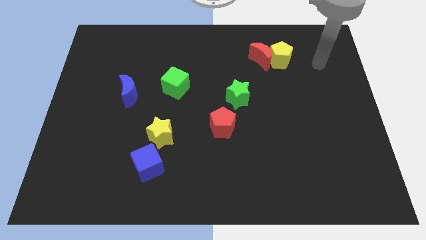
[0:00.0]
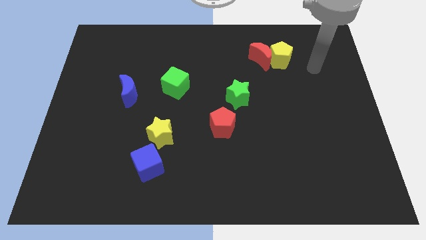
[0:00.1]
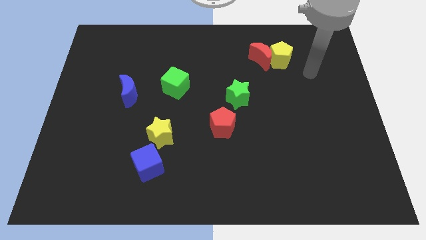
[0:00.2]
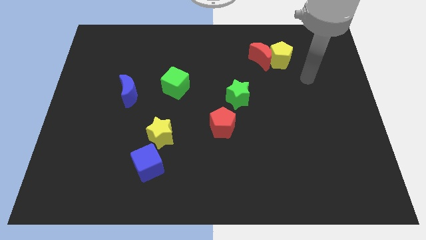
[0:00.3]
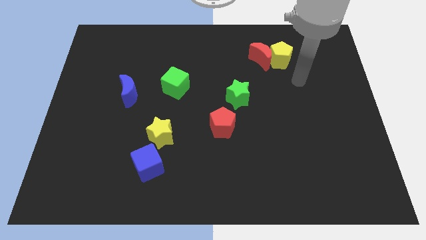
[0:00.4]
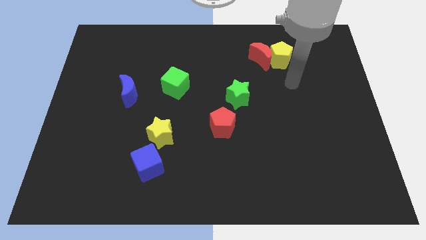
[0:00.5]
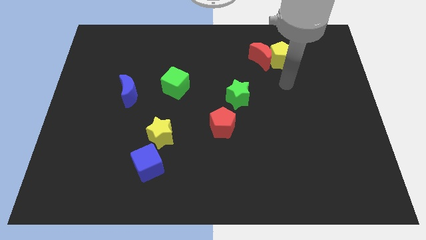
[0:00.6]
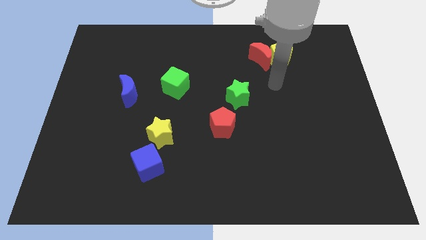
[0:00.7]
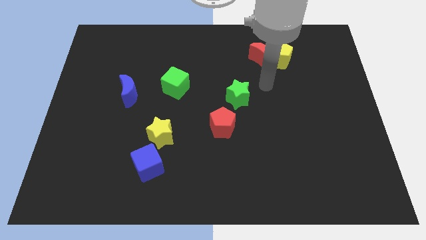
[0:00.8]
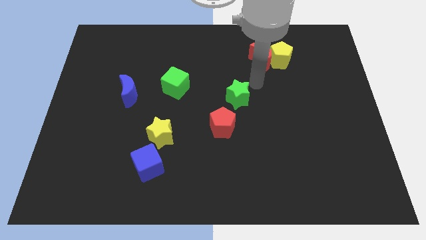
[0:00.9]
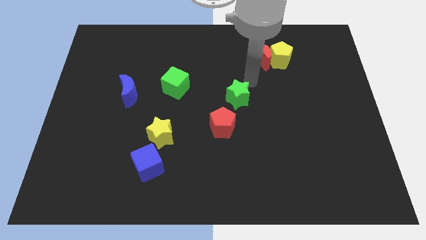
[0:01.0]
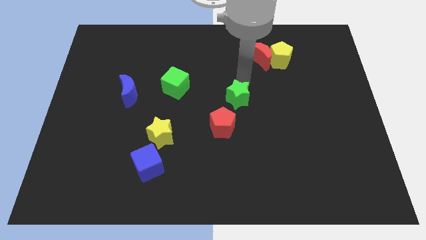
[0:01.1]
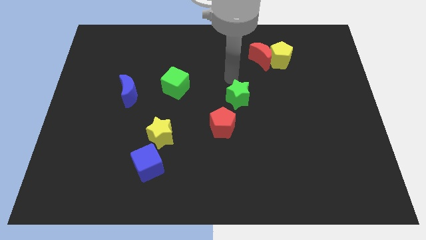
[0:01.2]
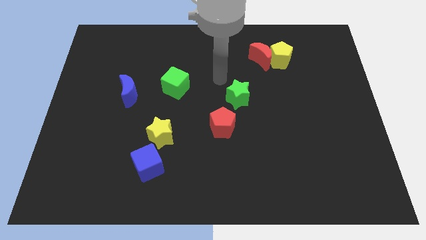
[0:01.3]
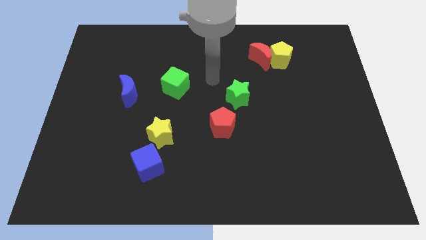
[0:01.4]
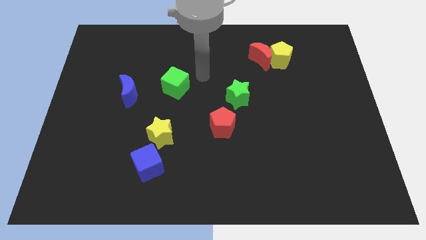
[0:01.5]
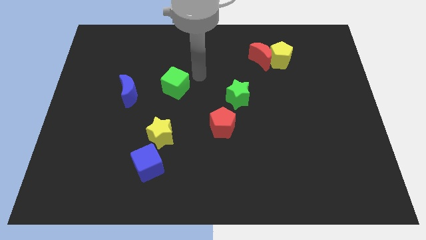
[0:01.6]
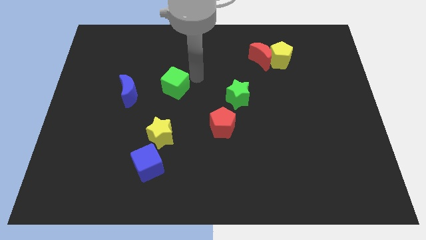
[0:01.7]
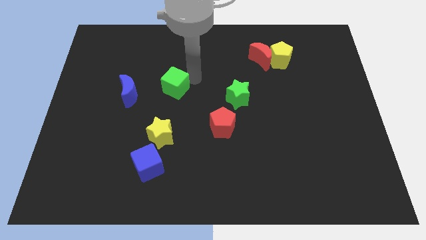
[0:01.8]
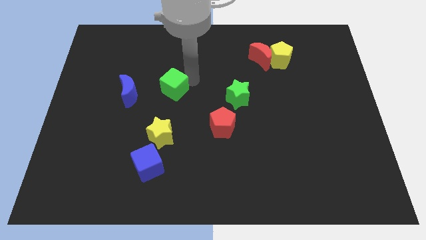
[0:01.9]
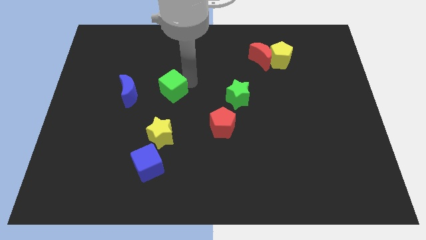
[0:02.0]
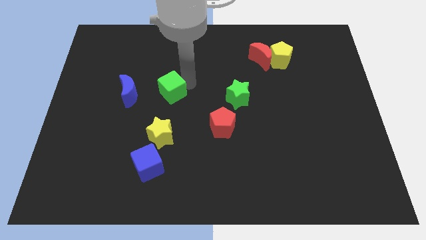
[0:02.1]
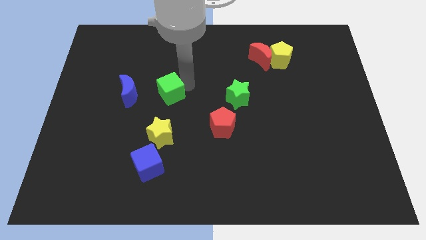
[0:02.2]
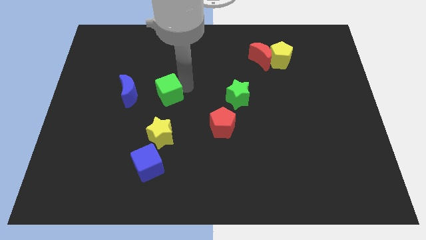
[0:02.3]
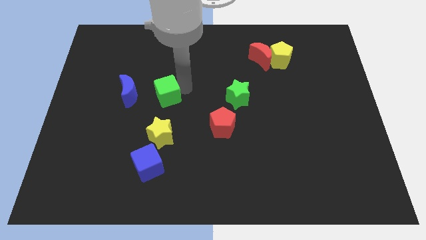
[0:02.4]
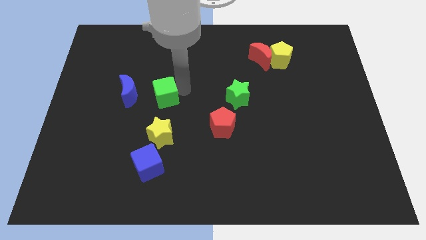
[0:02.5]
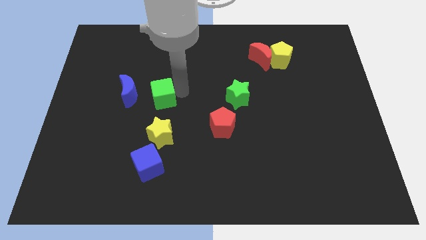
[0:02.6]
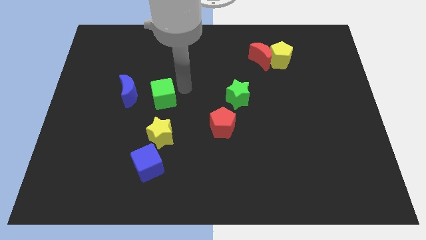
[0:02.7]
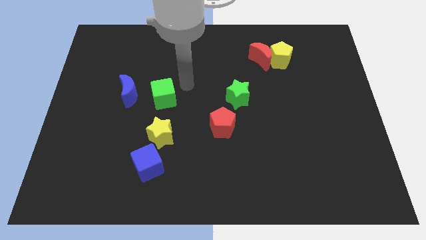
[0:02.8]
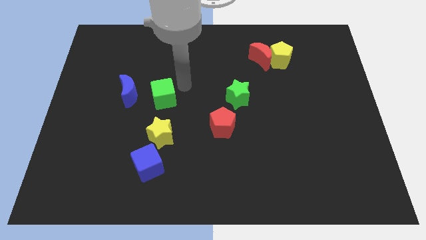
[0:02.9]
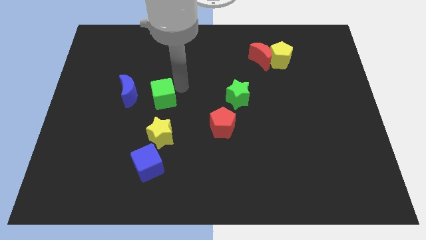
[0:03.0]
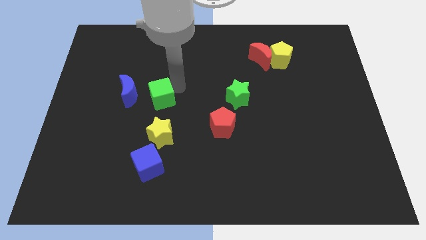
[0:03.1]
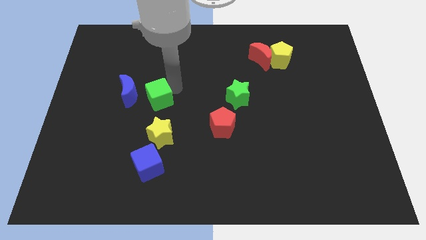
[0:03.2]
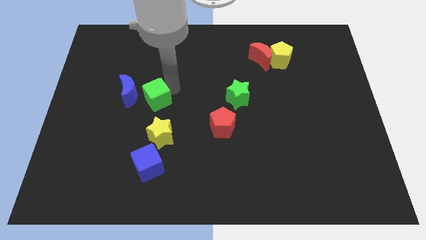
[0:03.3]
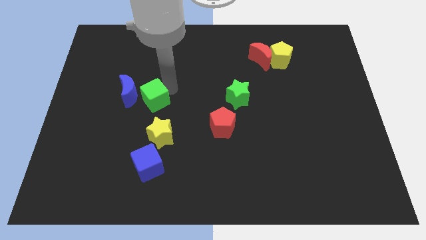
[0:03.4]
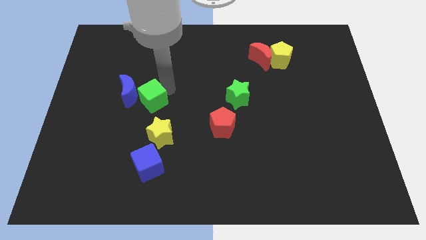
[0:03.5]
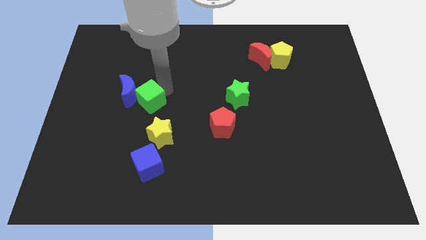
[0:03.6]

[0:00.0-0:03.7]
move the green cube downwards and left a little bit

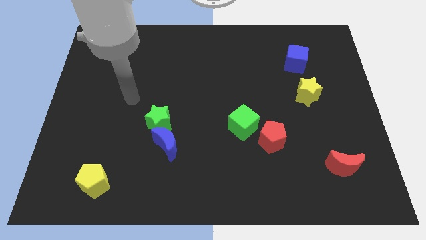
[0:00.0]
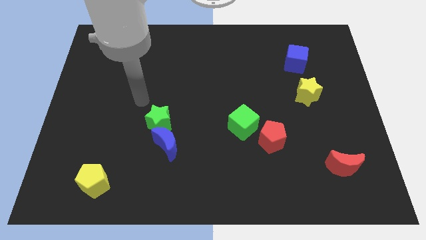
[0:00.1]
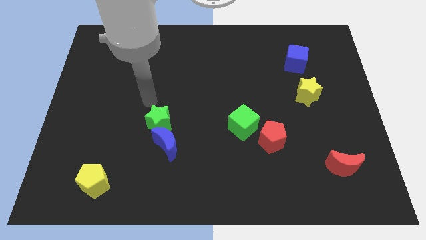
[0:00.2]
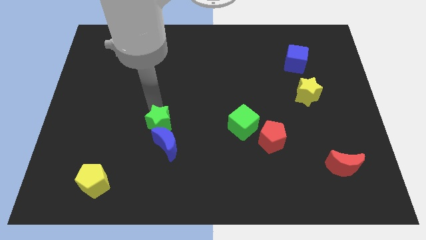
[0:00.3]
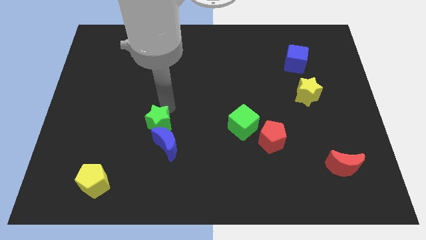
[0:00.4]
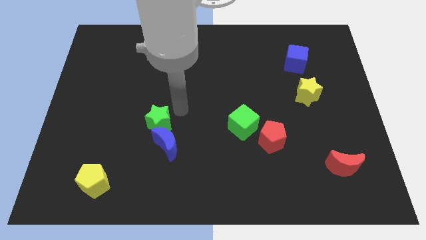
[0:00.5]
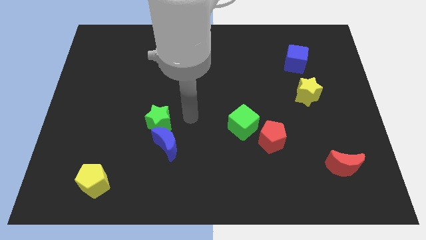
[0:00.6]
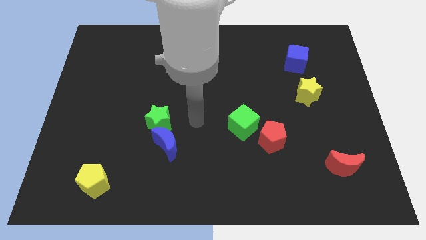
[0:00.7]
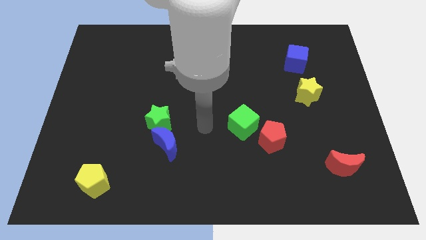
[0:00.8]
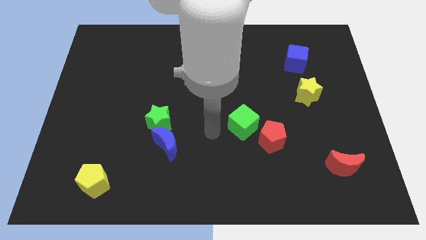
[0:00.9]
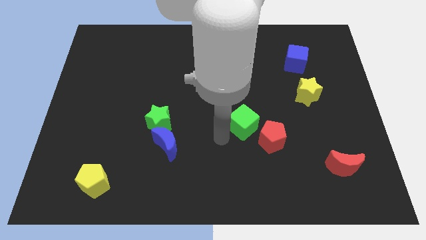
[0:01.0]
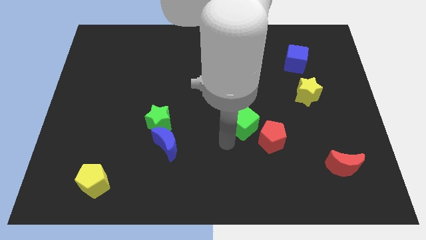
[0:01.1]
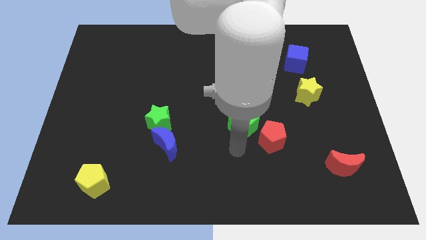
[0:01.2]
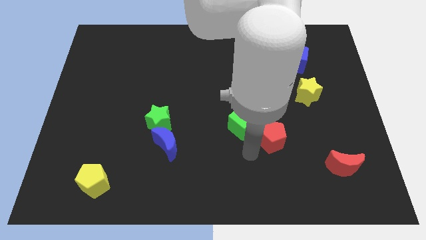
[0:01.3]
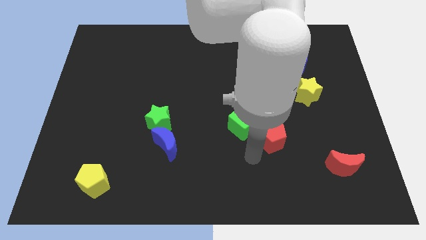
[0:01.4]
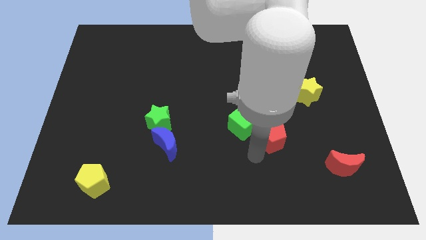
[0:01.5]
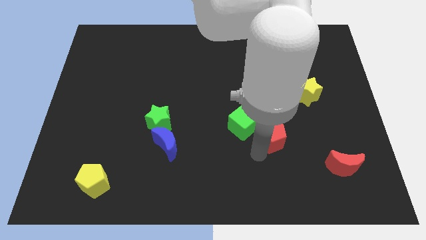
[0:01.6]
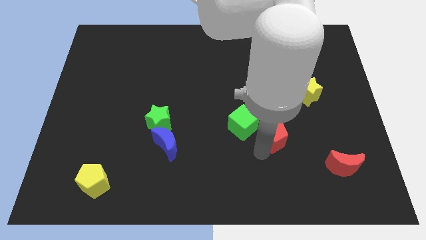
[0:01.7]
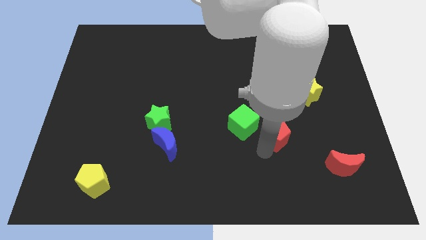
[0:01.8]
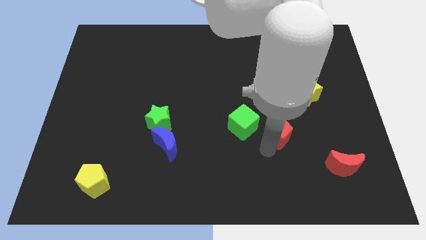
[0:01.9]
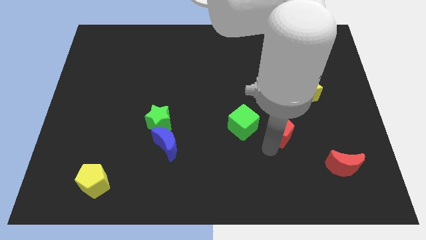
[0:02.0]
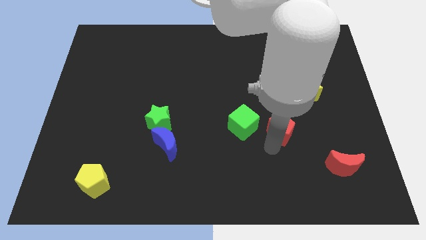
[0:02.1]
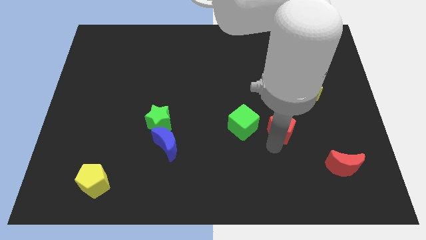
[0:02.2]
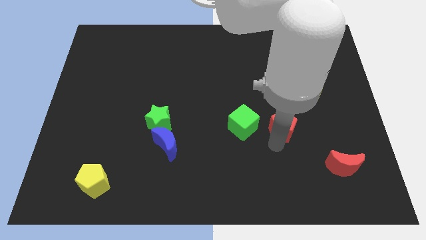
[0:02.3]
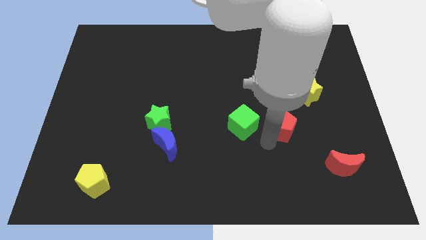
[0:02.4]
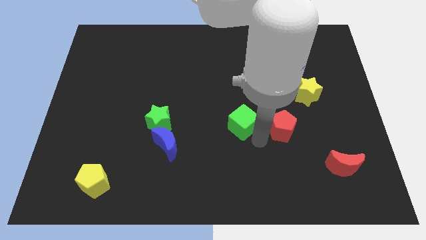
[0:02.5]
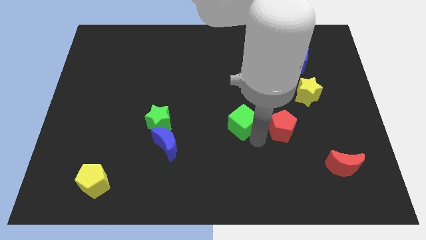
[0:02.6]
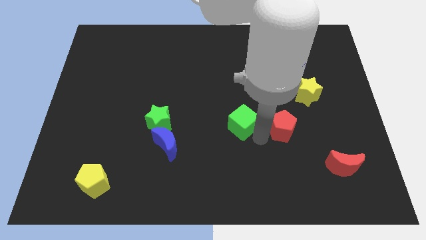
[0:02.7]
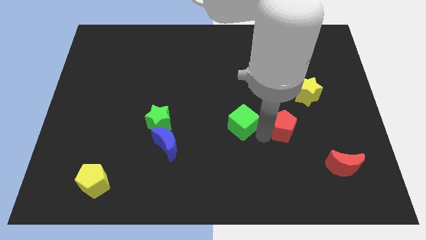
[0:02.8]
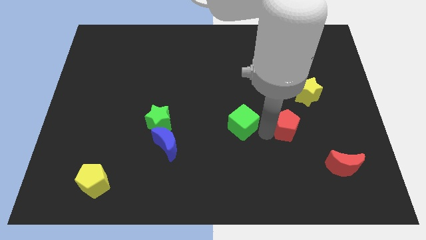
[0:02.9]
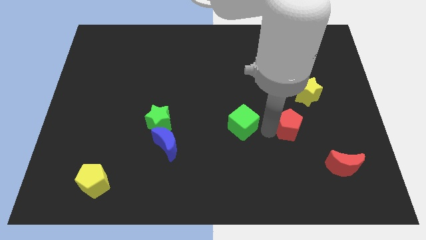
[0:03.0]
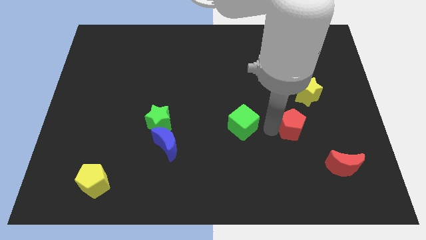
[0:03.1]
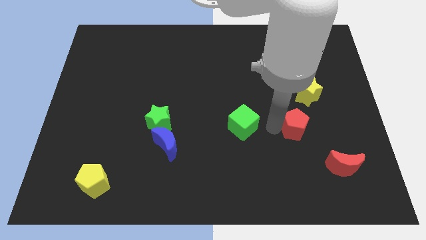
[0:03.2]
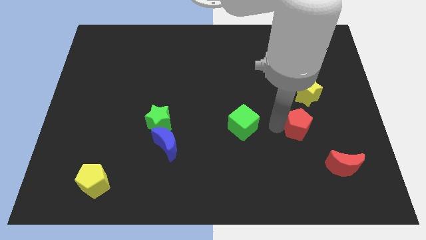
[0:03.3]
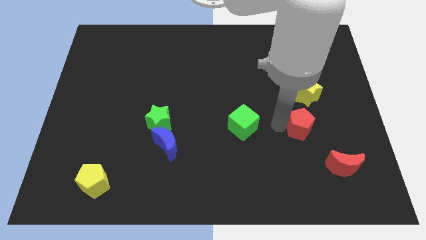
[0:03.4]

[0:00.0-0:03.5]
push the red pentagon slightly upwards and then to the right

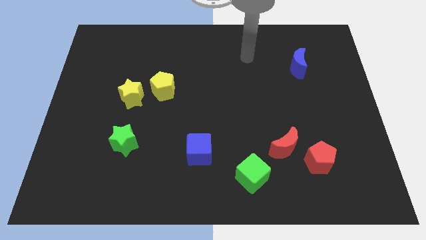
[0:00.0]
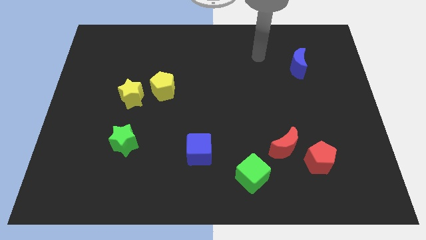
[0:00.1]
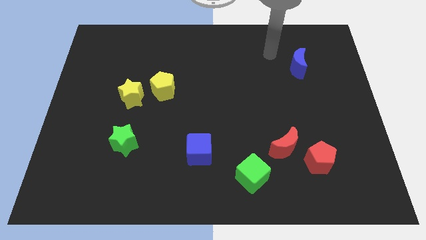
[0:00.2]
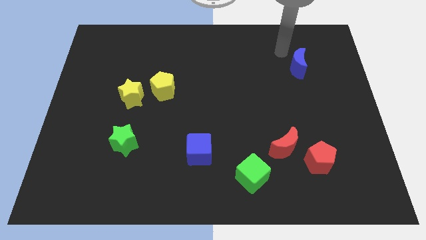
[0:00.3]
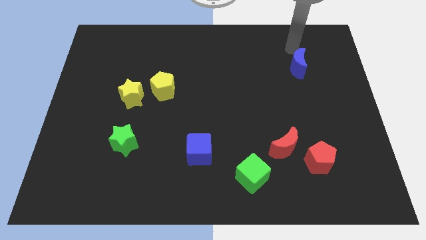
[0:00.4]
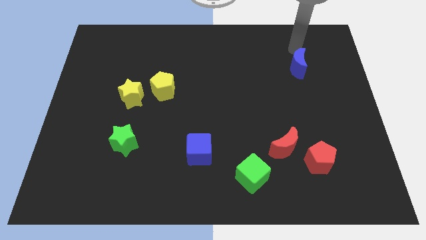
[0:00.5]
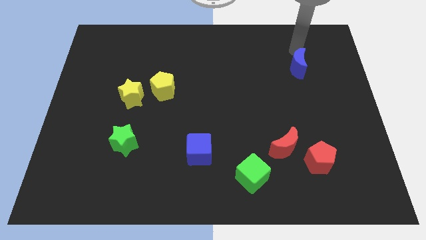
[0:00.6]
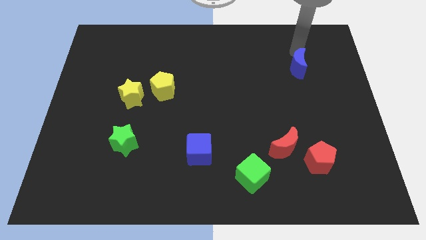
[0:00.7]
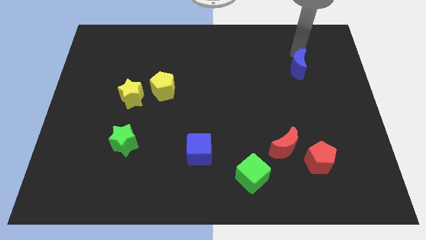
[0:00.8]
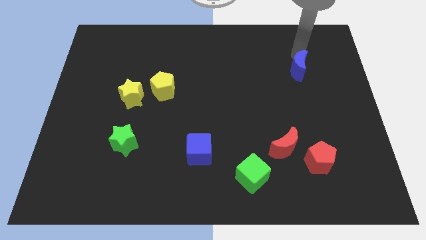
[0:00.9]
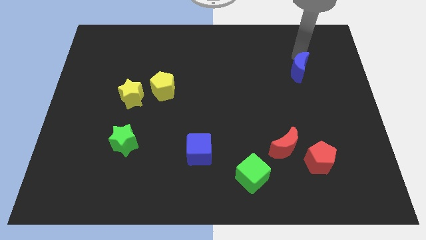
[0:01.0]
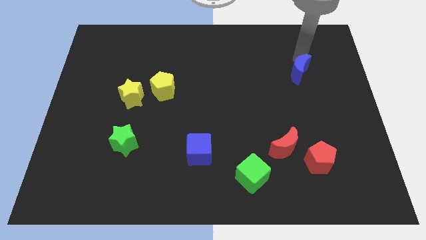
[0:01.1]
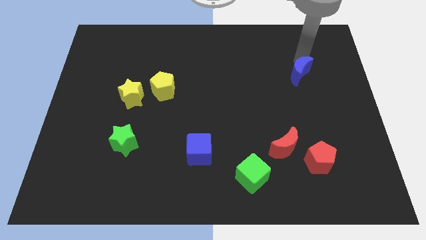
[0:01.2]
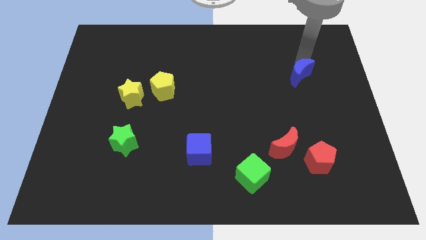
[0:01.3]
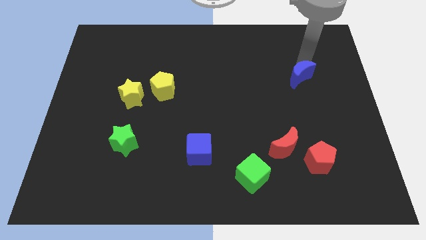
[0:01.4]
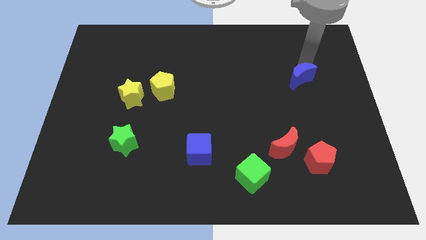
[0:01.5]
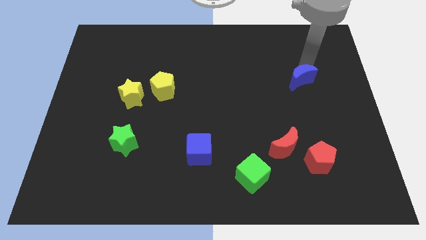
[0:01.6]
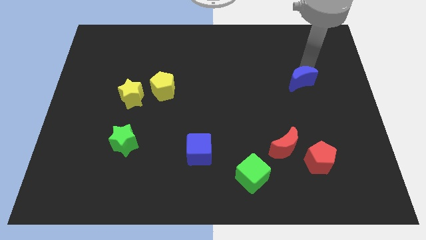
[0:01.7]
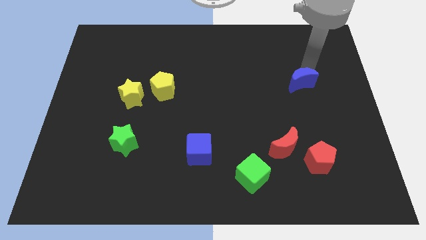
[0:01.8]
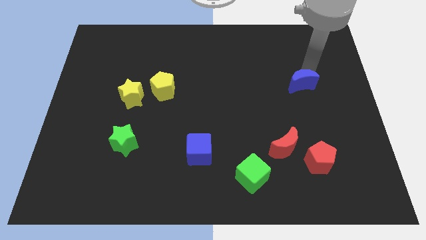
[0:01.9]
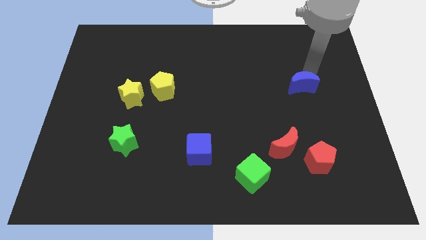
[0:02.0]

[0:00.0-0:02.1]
push the blue moon a little bit down
